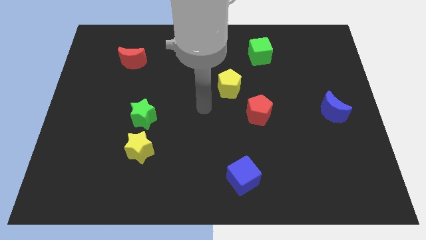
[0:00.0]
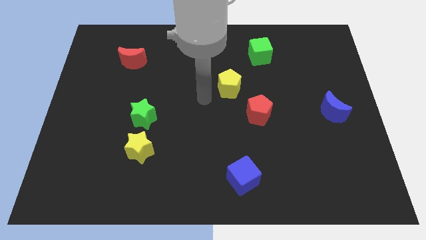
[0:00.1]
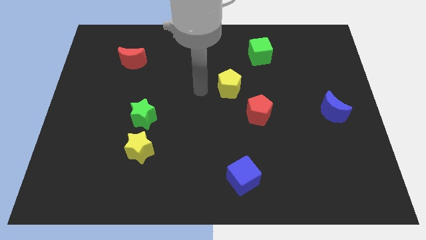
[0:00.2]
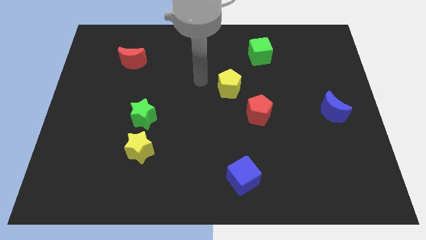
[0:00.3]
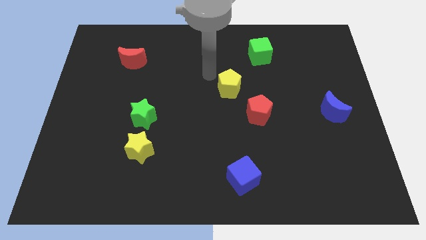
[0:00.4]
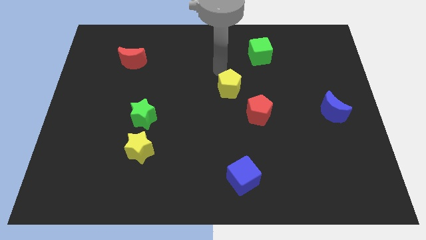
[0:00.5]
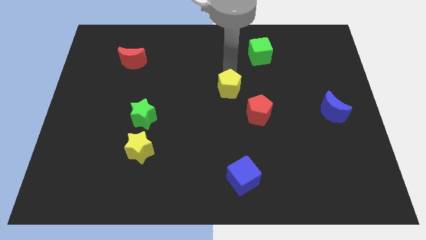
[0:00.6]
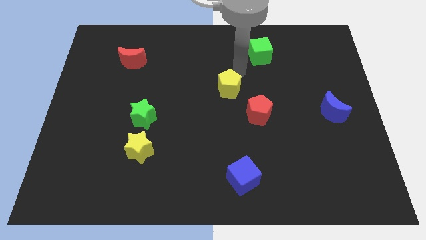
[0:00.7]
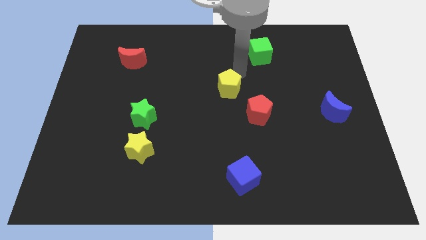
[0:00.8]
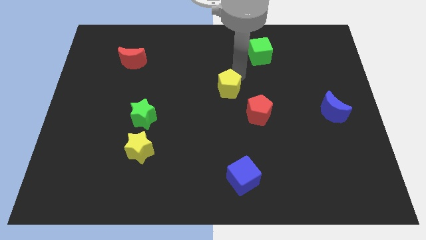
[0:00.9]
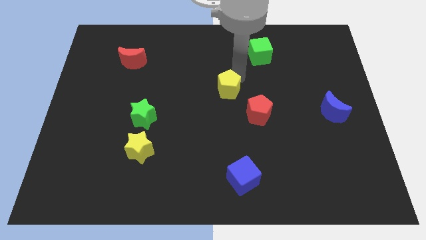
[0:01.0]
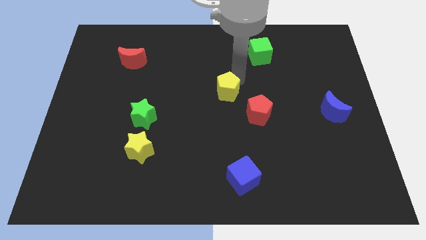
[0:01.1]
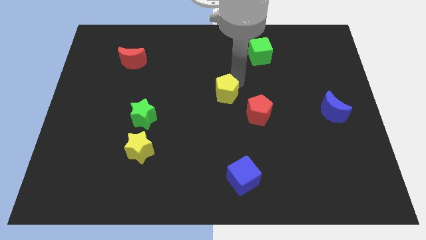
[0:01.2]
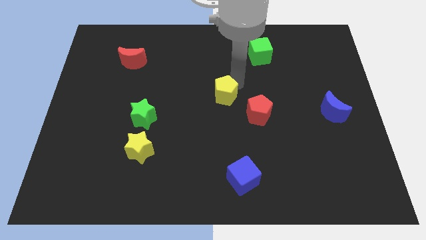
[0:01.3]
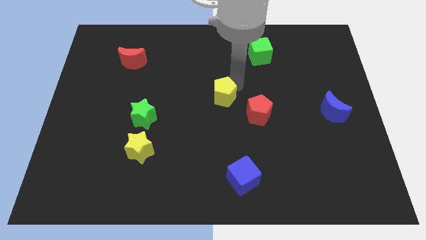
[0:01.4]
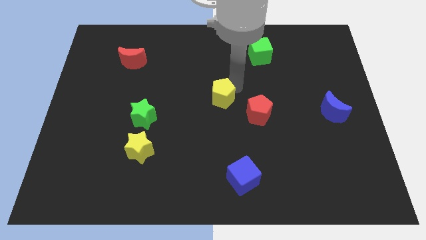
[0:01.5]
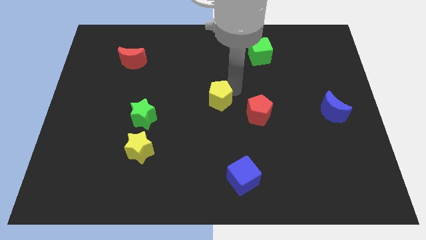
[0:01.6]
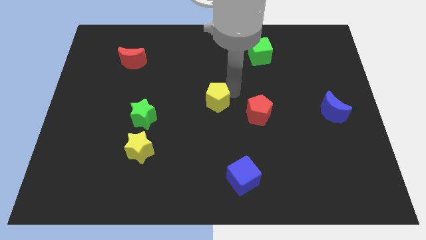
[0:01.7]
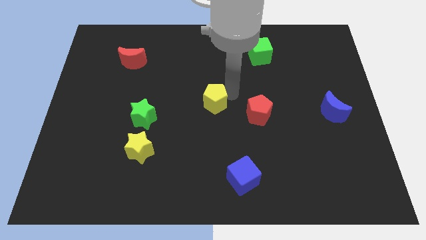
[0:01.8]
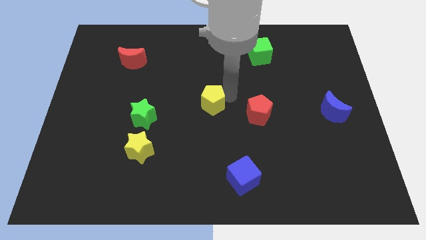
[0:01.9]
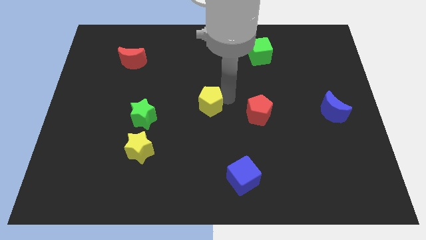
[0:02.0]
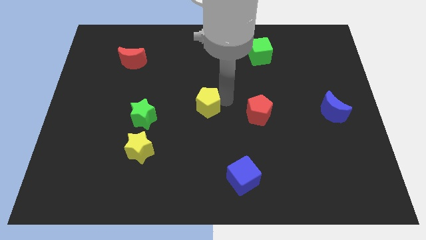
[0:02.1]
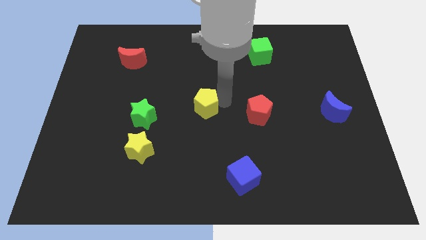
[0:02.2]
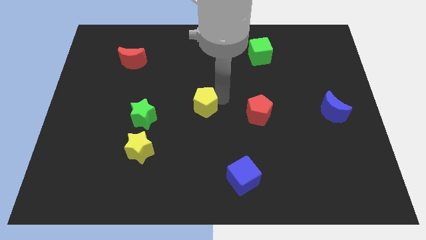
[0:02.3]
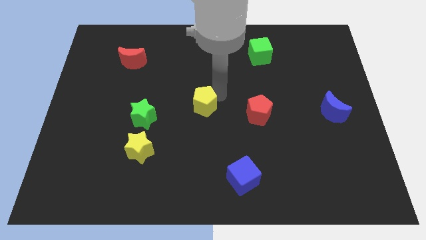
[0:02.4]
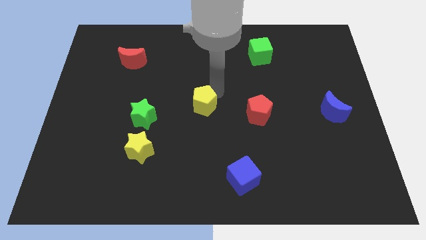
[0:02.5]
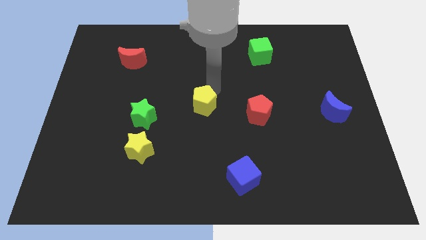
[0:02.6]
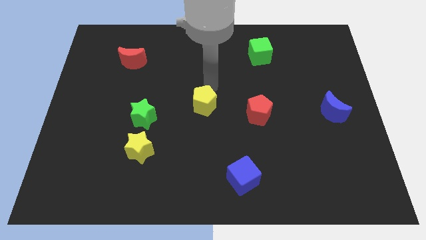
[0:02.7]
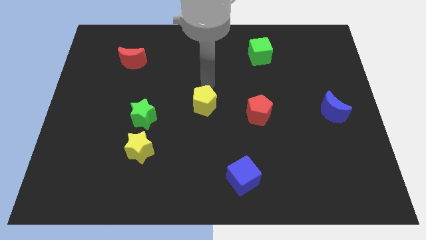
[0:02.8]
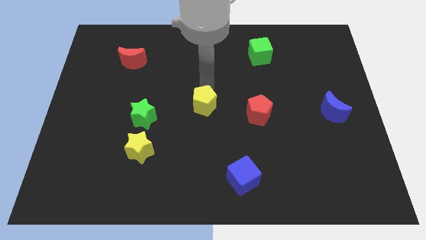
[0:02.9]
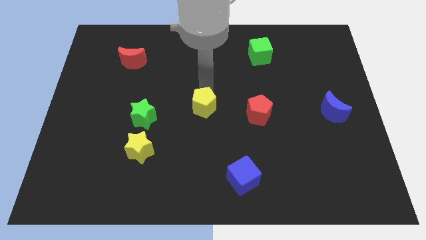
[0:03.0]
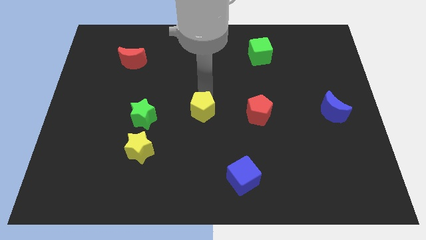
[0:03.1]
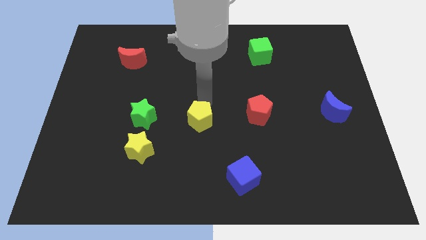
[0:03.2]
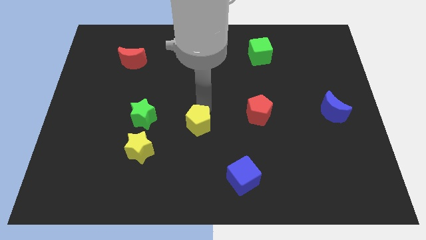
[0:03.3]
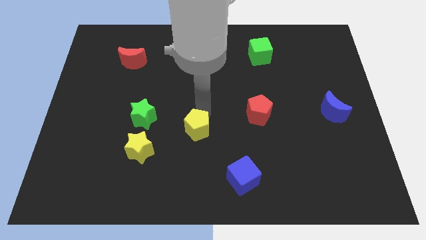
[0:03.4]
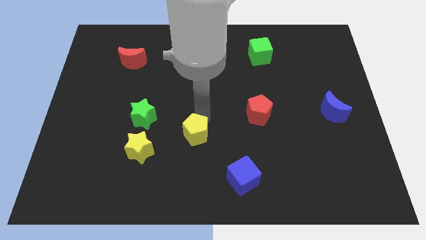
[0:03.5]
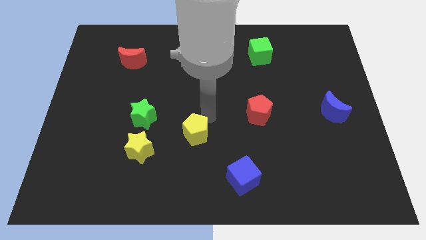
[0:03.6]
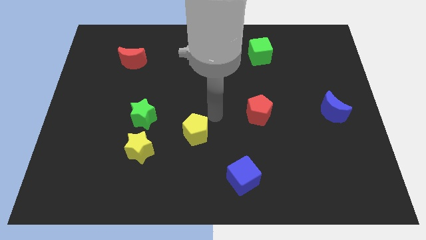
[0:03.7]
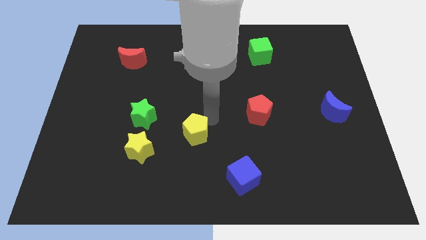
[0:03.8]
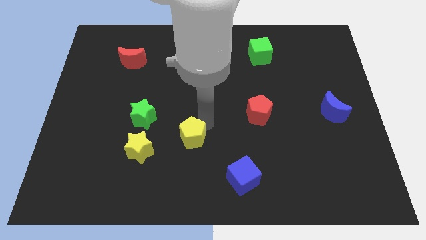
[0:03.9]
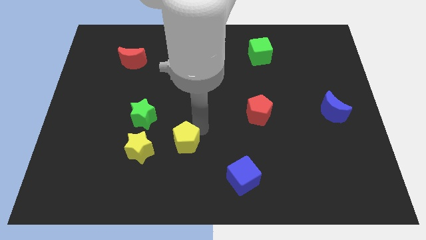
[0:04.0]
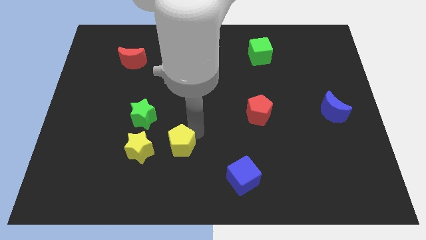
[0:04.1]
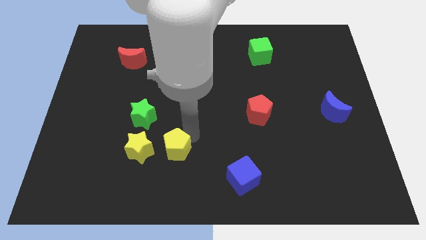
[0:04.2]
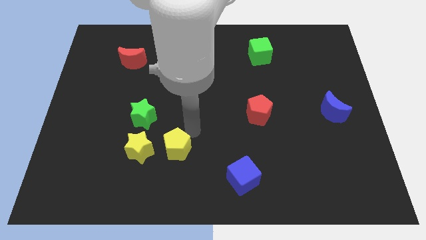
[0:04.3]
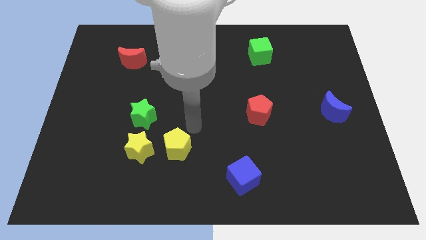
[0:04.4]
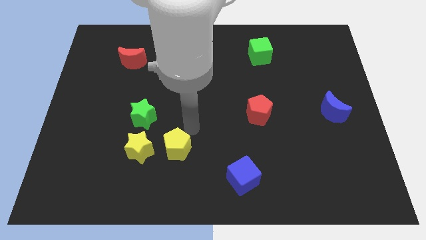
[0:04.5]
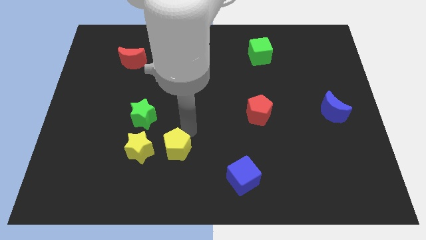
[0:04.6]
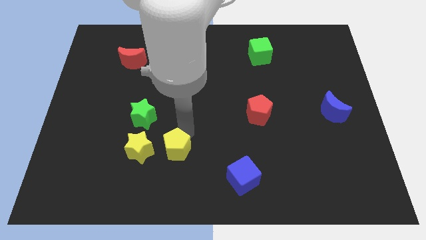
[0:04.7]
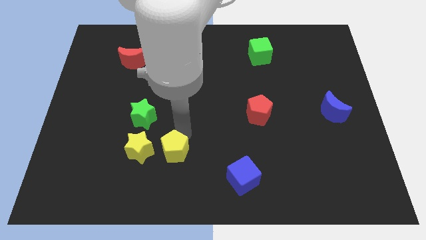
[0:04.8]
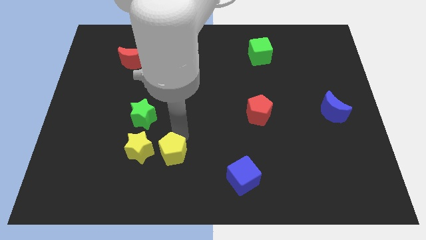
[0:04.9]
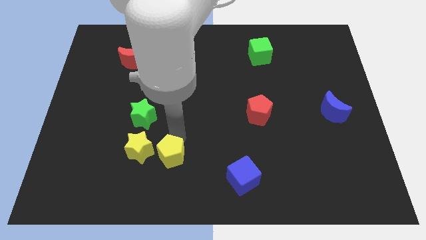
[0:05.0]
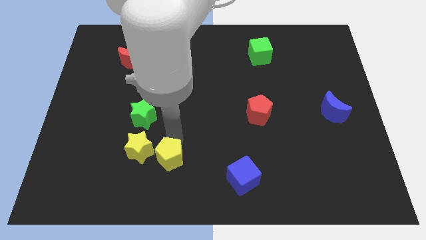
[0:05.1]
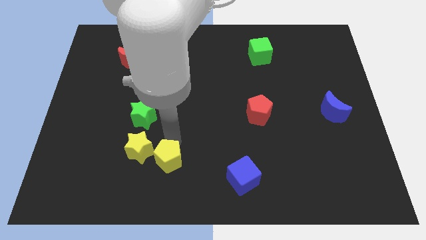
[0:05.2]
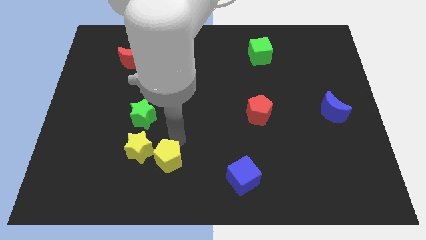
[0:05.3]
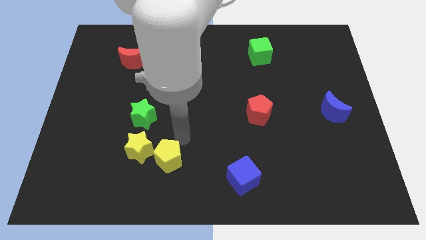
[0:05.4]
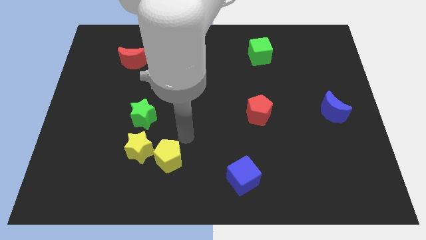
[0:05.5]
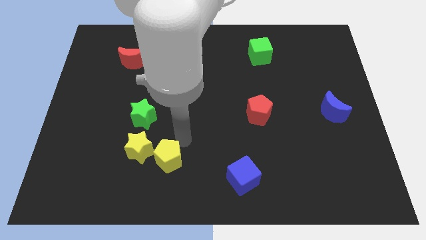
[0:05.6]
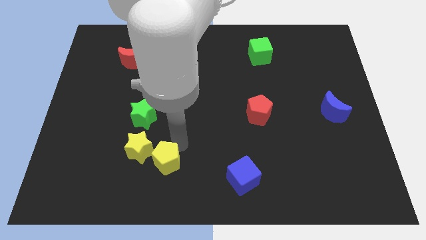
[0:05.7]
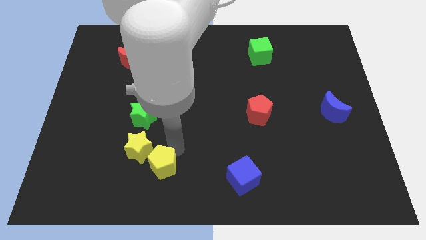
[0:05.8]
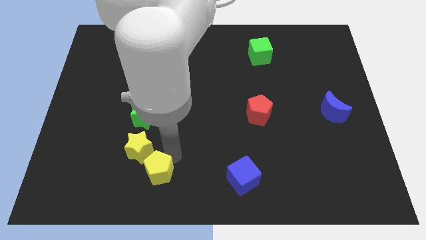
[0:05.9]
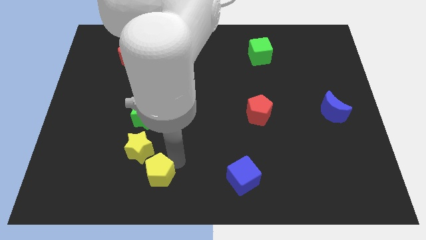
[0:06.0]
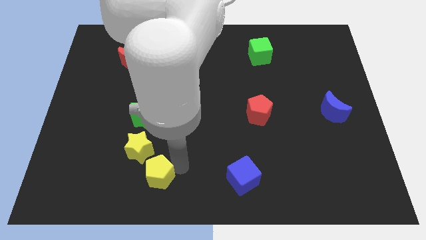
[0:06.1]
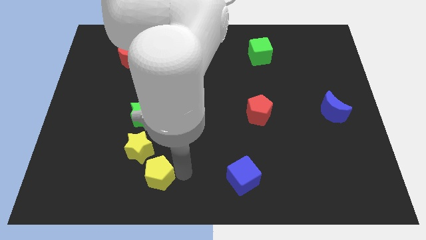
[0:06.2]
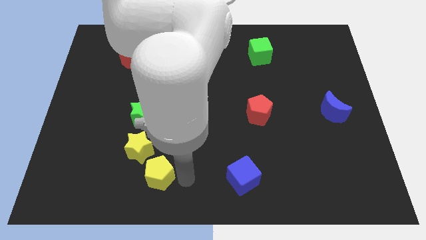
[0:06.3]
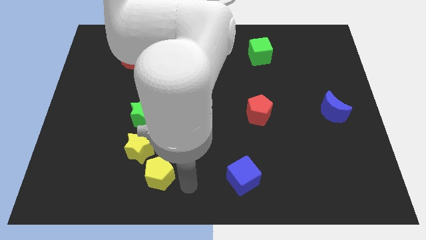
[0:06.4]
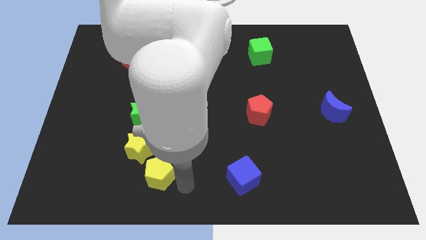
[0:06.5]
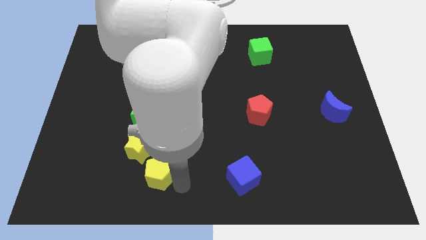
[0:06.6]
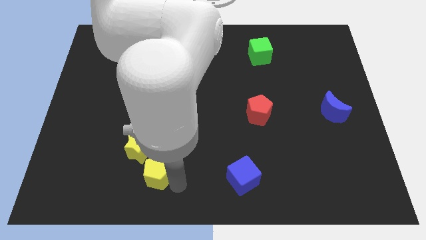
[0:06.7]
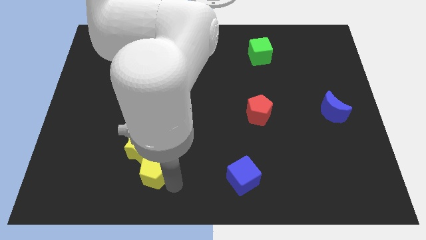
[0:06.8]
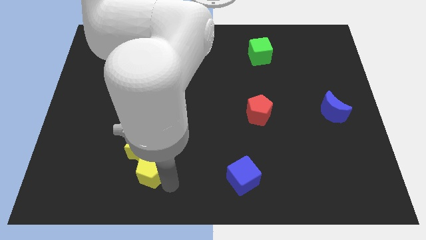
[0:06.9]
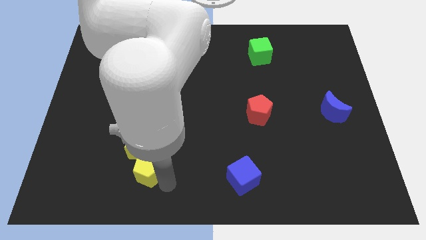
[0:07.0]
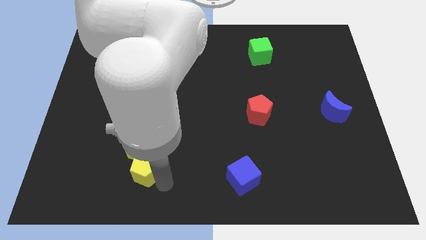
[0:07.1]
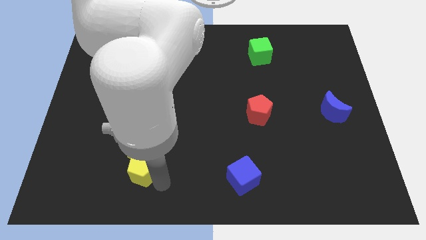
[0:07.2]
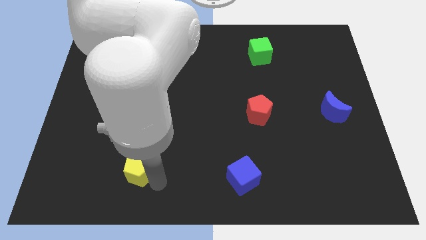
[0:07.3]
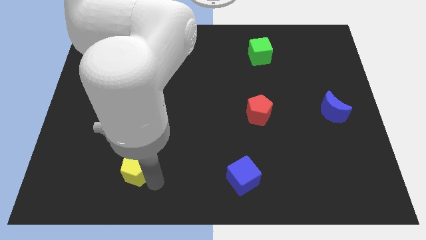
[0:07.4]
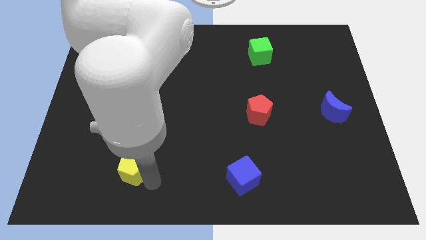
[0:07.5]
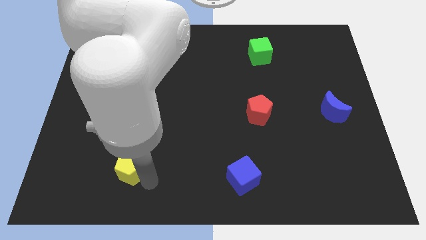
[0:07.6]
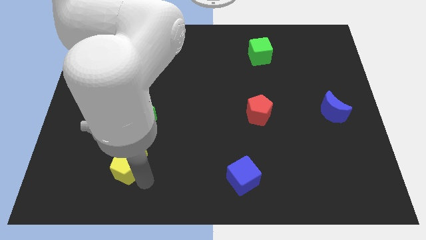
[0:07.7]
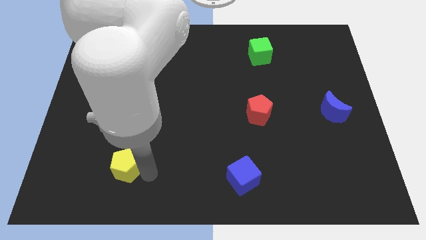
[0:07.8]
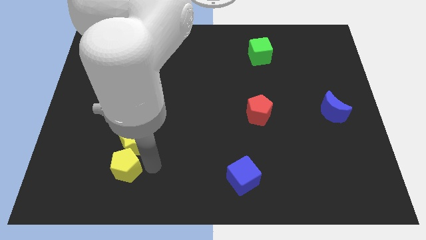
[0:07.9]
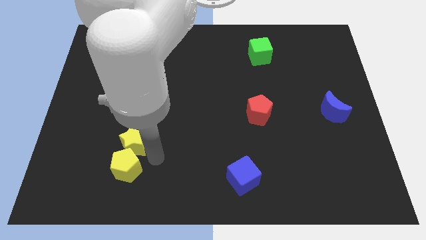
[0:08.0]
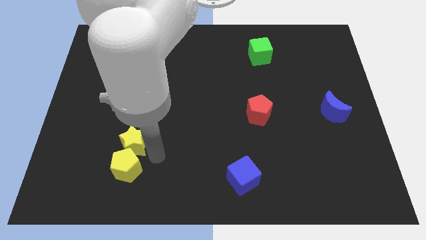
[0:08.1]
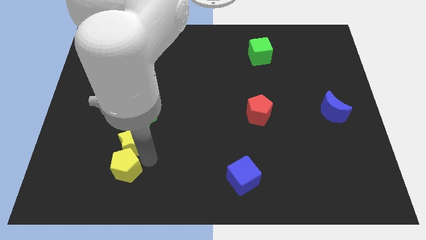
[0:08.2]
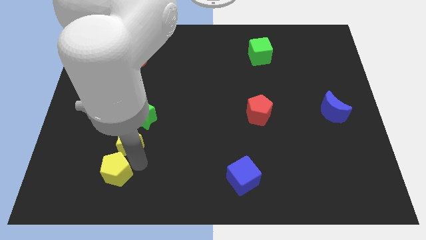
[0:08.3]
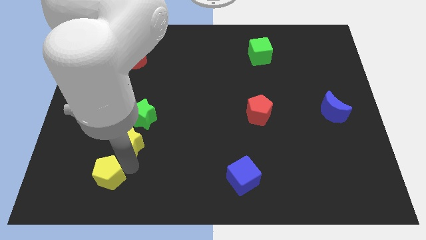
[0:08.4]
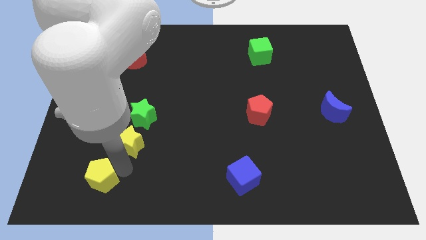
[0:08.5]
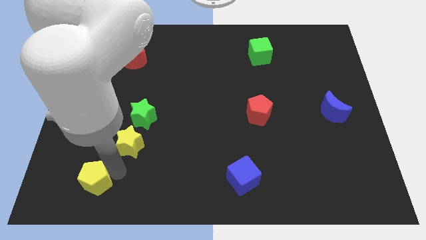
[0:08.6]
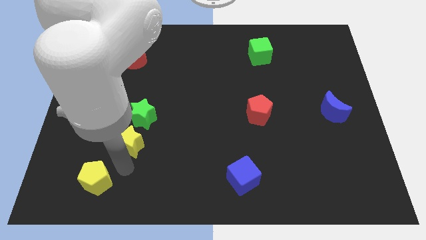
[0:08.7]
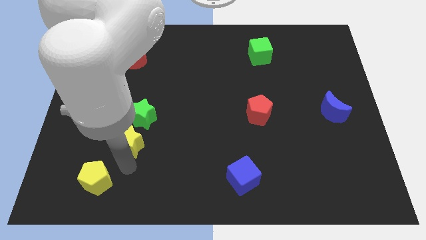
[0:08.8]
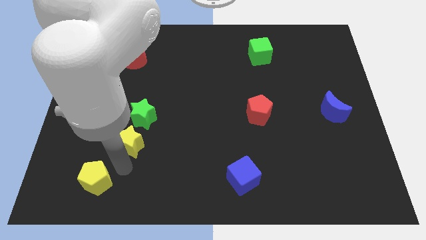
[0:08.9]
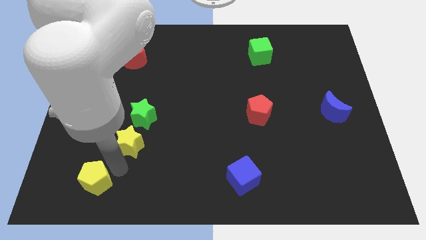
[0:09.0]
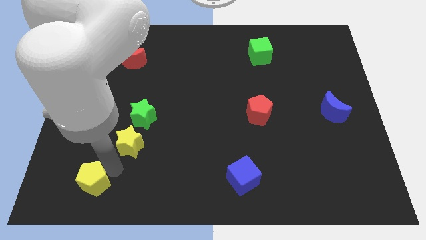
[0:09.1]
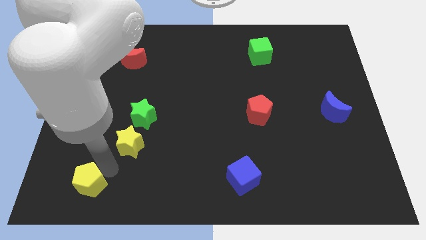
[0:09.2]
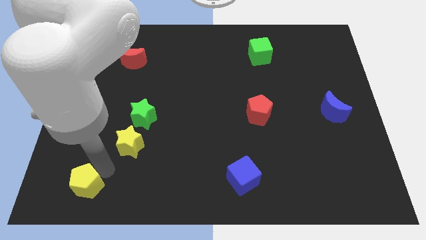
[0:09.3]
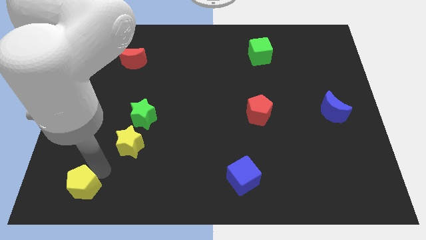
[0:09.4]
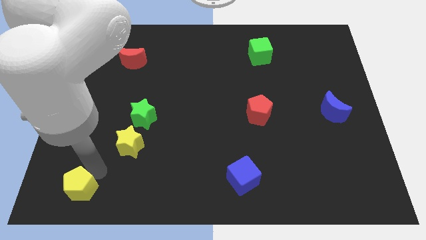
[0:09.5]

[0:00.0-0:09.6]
move the yellow pentagon to the bottom left
